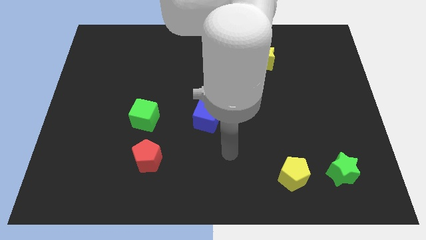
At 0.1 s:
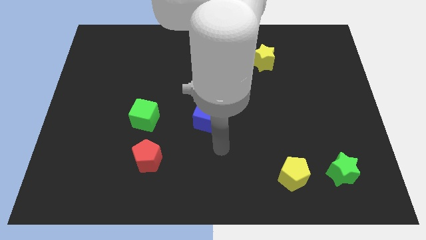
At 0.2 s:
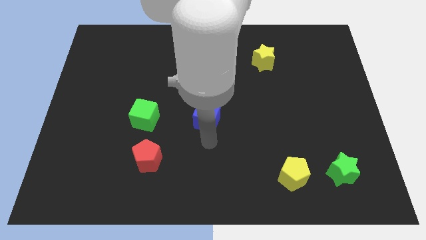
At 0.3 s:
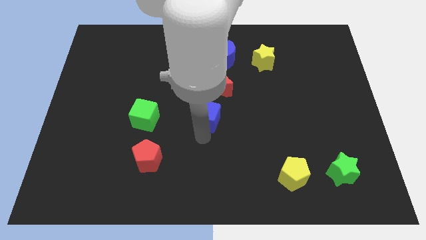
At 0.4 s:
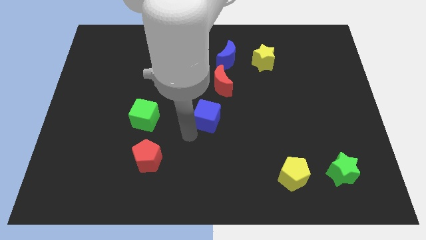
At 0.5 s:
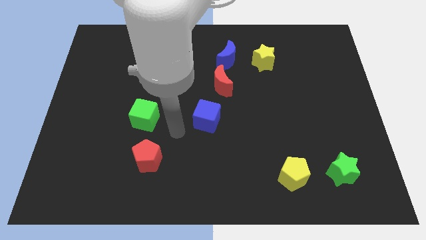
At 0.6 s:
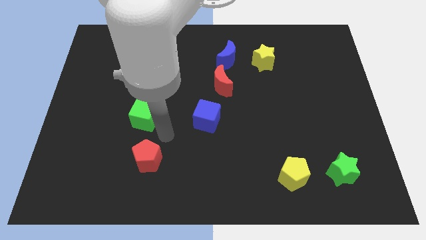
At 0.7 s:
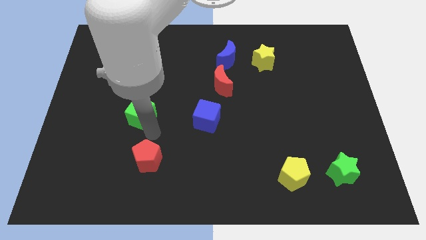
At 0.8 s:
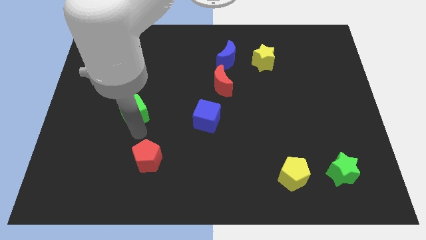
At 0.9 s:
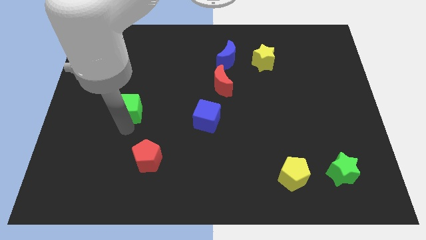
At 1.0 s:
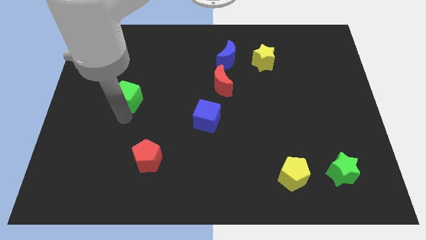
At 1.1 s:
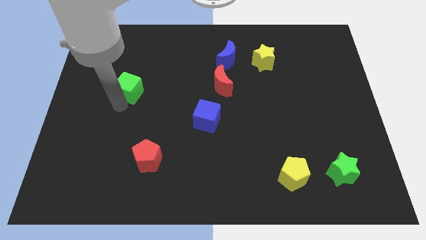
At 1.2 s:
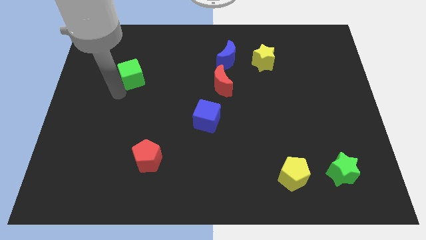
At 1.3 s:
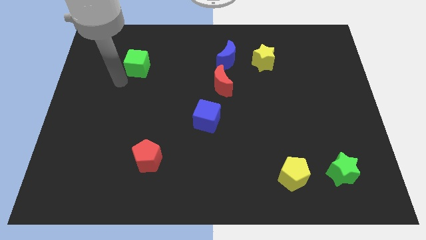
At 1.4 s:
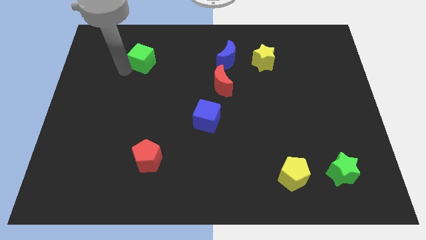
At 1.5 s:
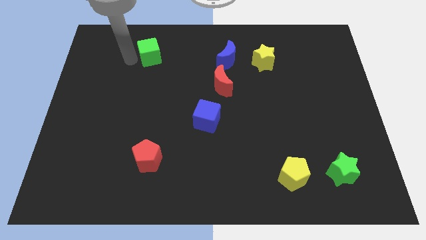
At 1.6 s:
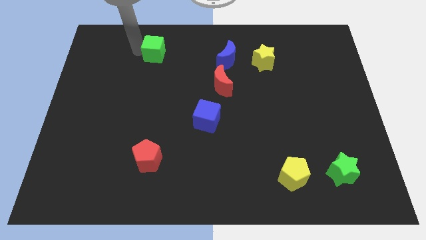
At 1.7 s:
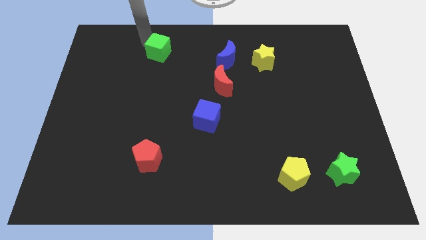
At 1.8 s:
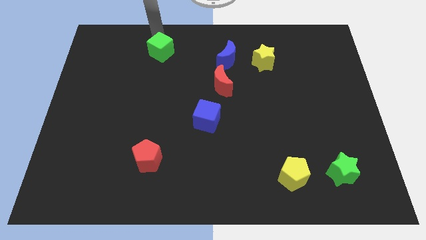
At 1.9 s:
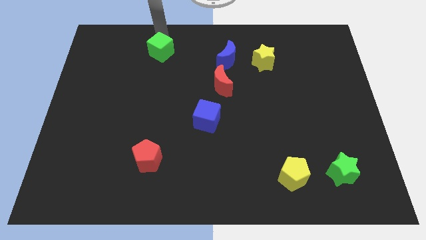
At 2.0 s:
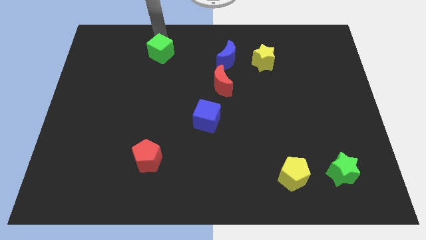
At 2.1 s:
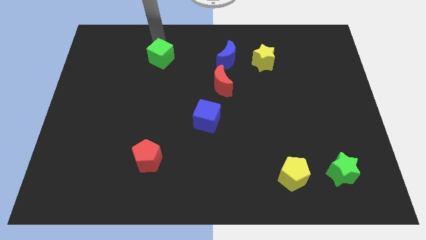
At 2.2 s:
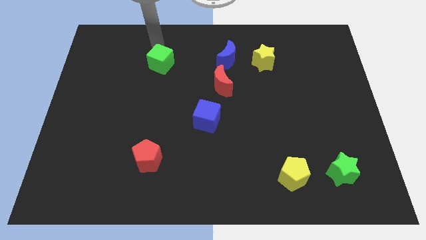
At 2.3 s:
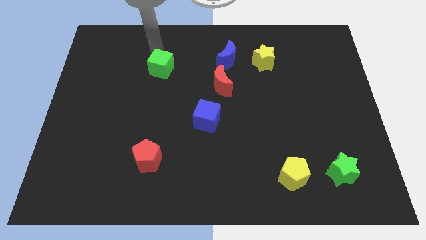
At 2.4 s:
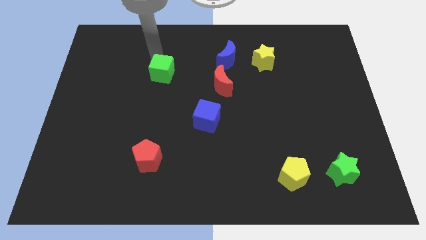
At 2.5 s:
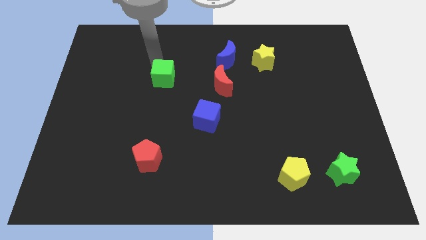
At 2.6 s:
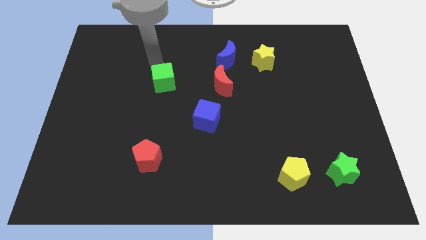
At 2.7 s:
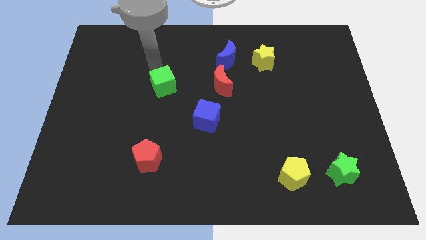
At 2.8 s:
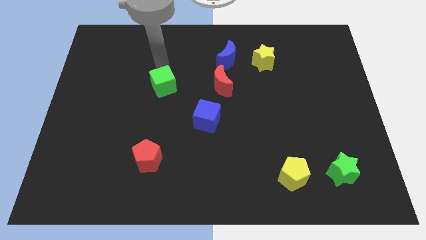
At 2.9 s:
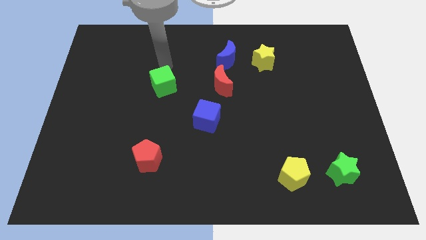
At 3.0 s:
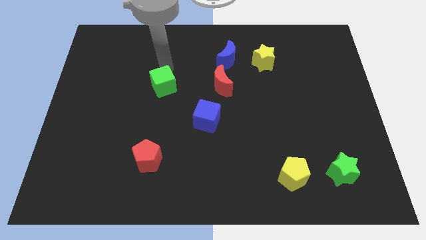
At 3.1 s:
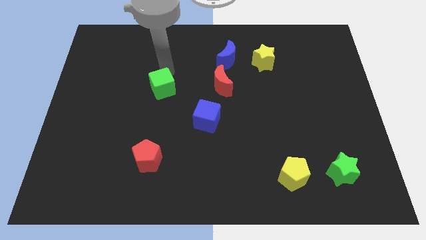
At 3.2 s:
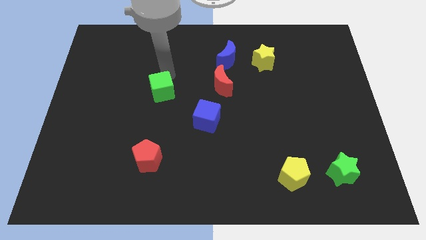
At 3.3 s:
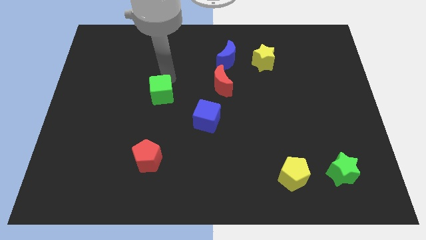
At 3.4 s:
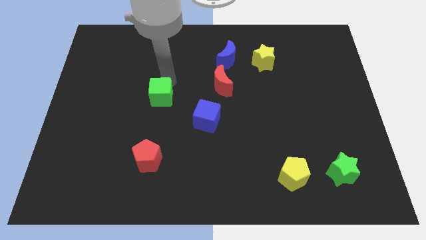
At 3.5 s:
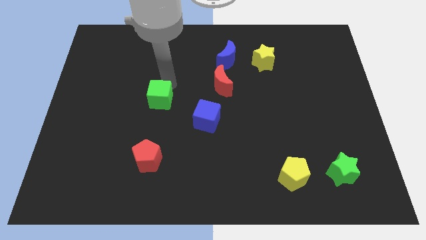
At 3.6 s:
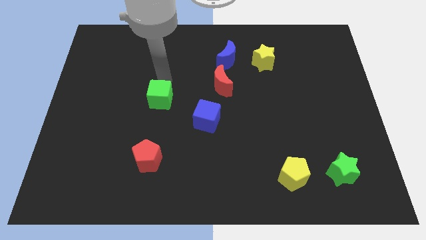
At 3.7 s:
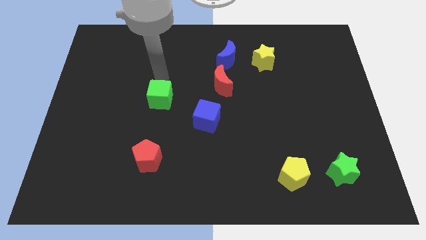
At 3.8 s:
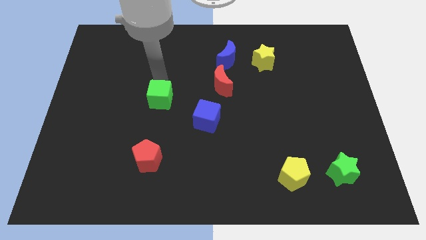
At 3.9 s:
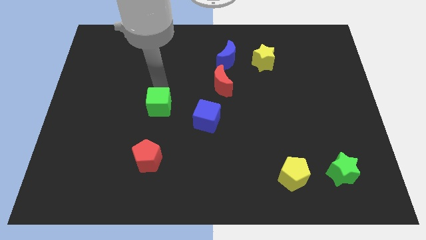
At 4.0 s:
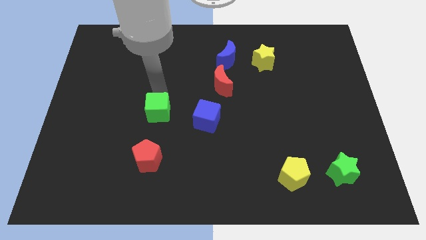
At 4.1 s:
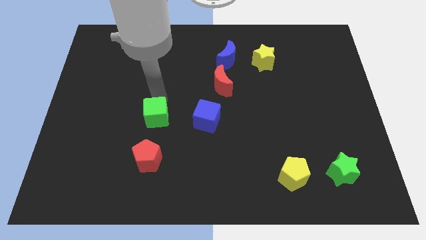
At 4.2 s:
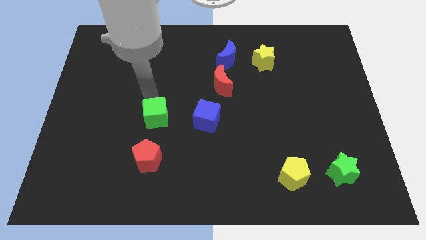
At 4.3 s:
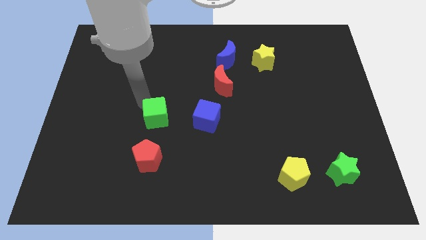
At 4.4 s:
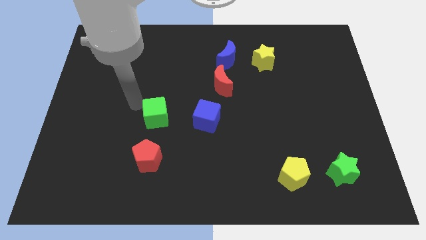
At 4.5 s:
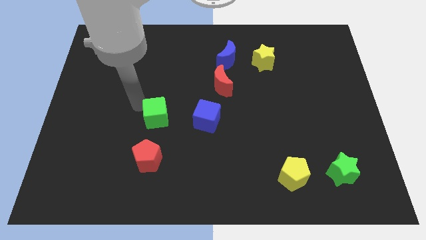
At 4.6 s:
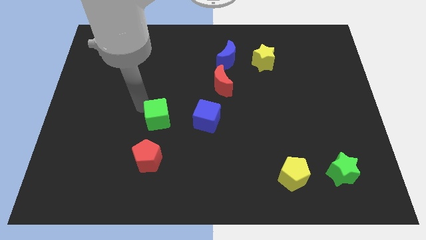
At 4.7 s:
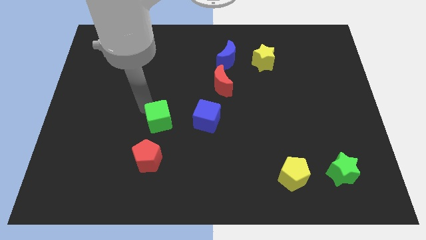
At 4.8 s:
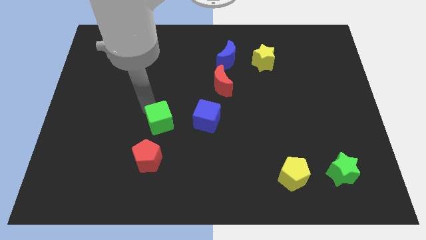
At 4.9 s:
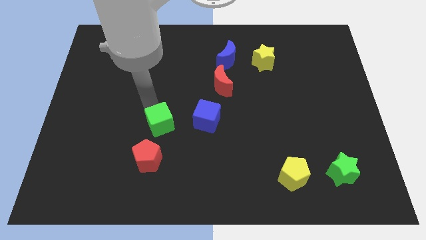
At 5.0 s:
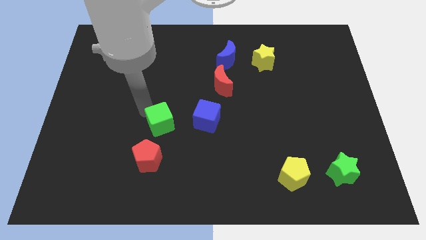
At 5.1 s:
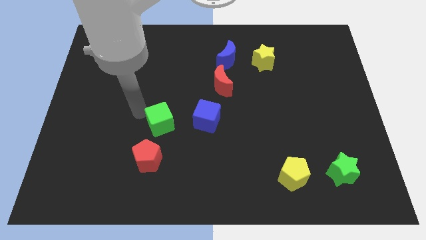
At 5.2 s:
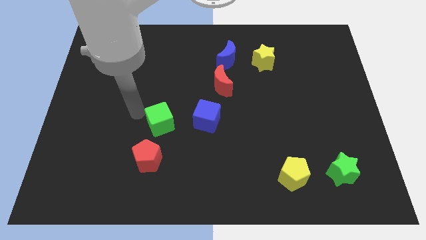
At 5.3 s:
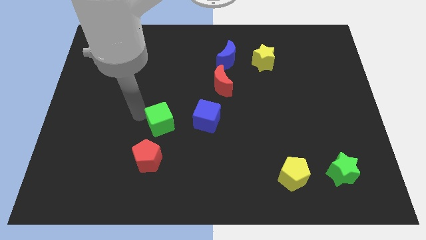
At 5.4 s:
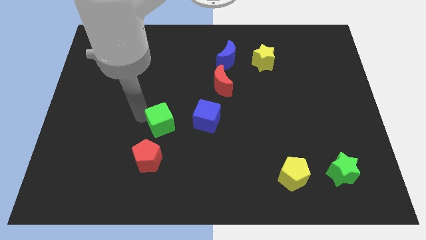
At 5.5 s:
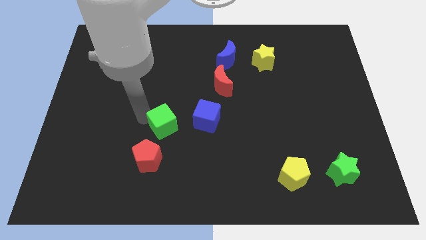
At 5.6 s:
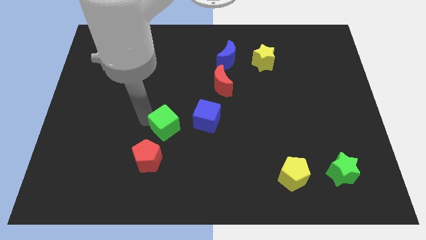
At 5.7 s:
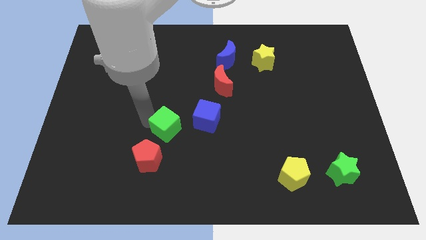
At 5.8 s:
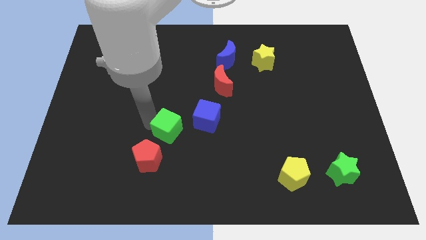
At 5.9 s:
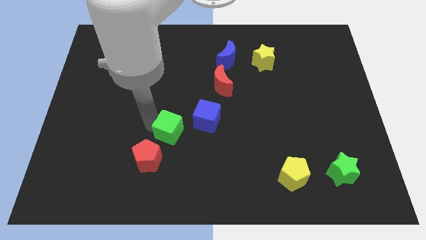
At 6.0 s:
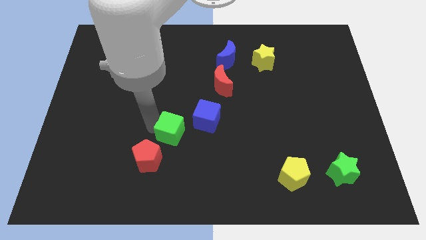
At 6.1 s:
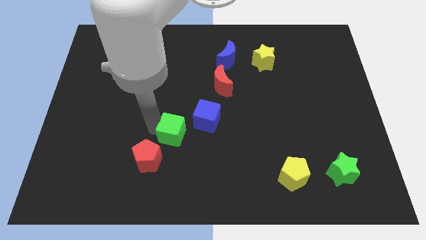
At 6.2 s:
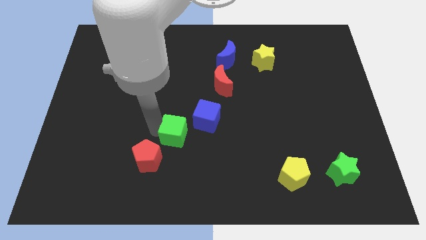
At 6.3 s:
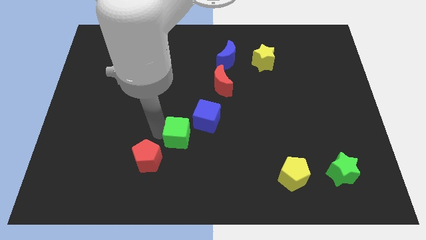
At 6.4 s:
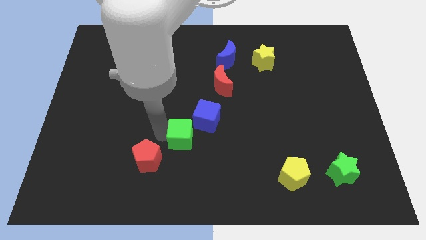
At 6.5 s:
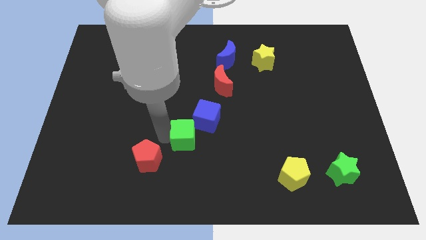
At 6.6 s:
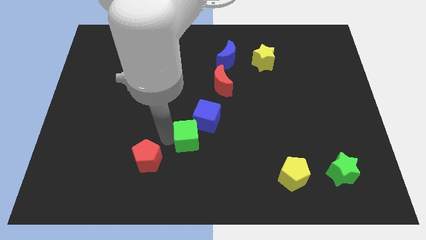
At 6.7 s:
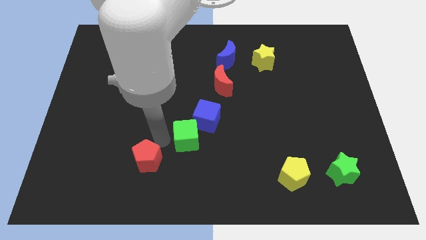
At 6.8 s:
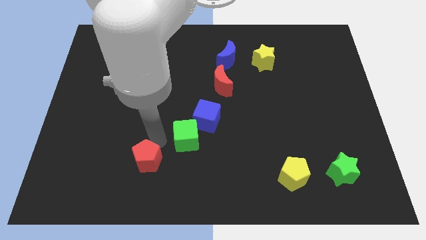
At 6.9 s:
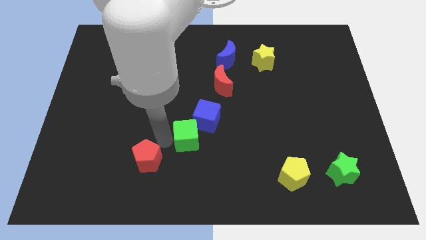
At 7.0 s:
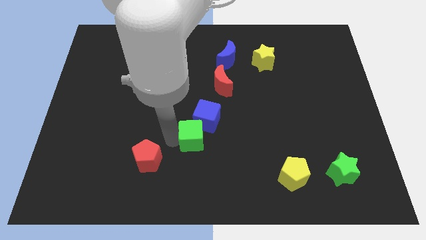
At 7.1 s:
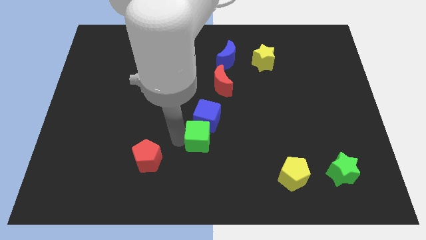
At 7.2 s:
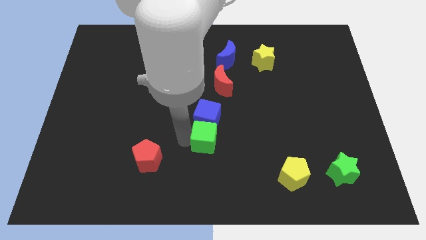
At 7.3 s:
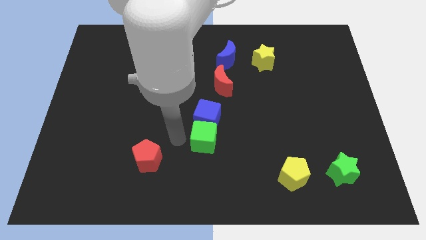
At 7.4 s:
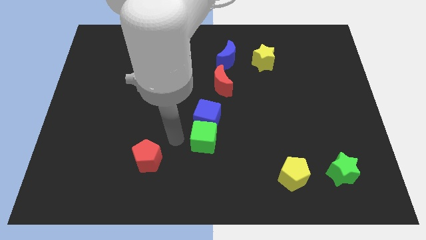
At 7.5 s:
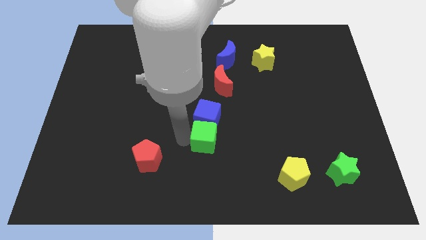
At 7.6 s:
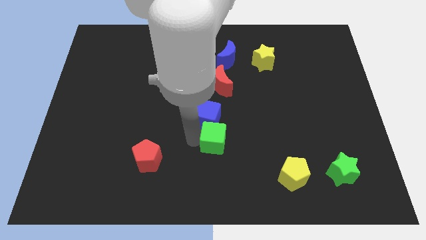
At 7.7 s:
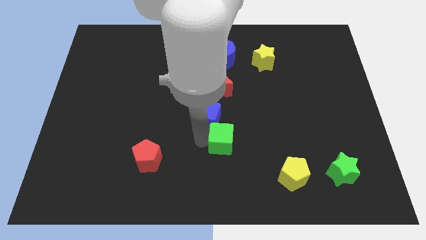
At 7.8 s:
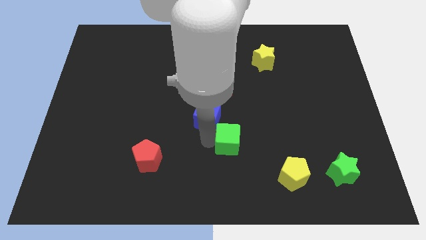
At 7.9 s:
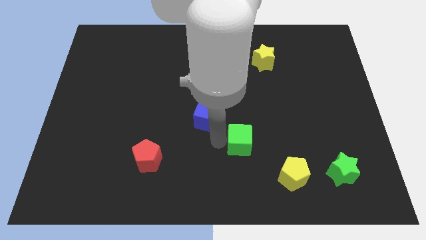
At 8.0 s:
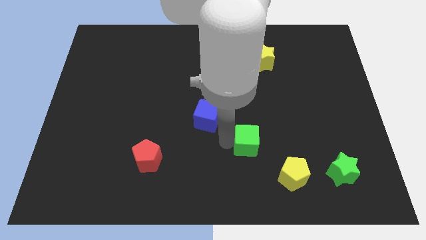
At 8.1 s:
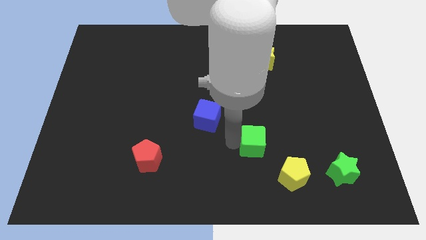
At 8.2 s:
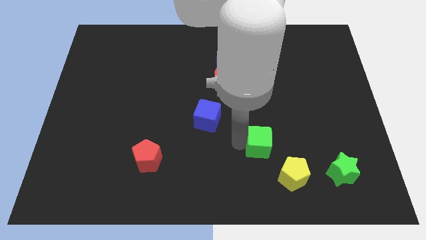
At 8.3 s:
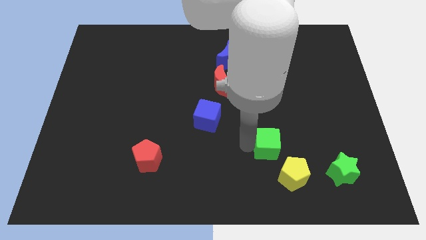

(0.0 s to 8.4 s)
push the green cube to the top of the yellow pentagon
